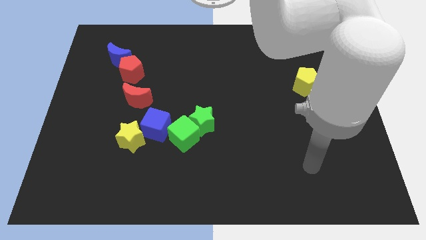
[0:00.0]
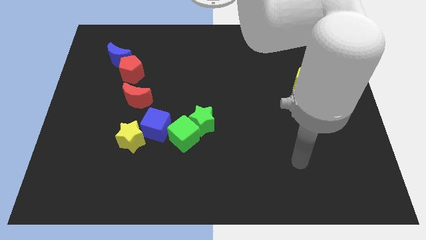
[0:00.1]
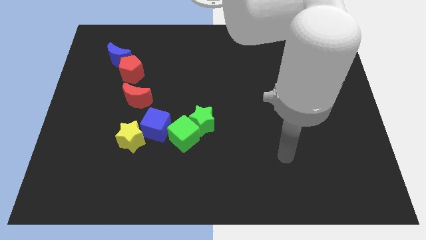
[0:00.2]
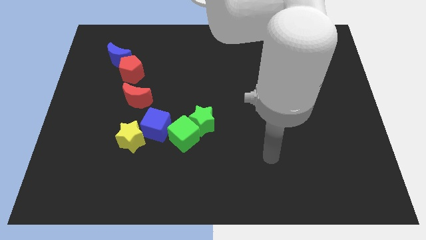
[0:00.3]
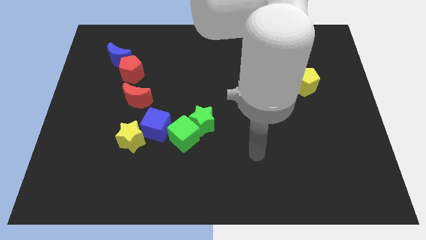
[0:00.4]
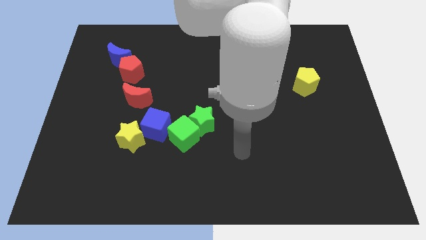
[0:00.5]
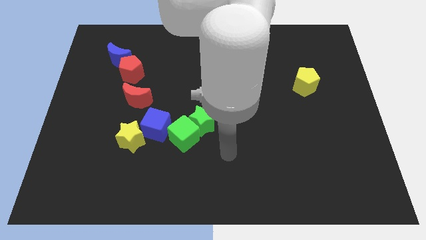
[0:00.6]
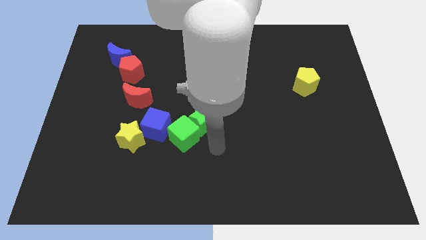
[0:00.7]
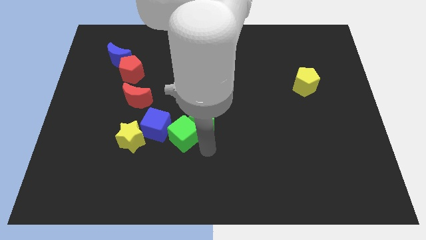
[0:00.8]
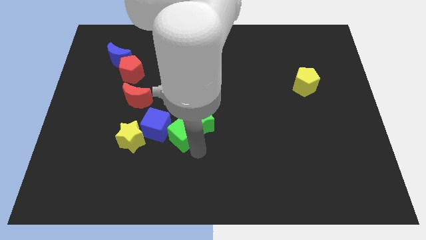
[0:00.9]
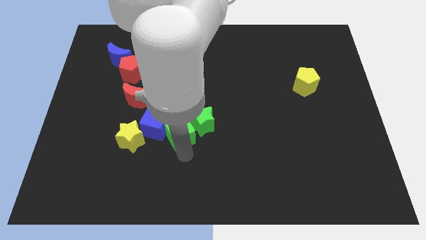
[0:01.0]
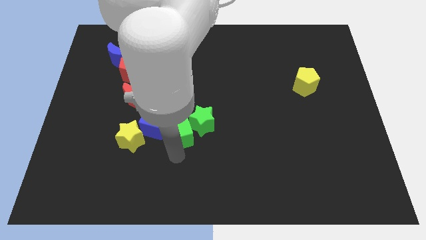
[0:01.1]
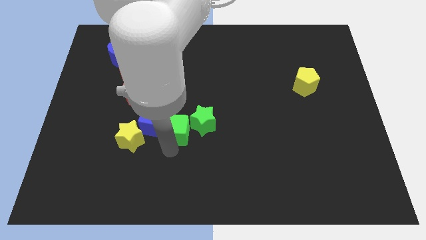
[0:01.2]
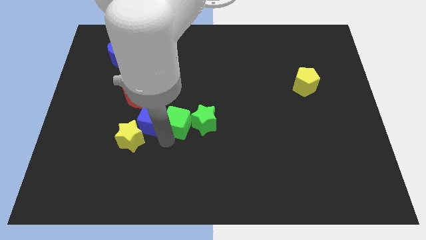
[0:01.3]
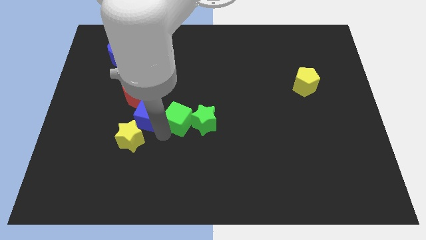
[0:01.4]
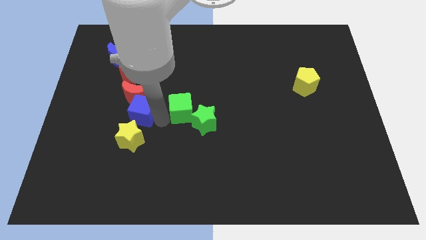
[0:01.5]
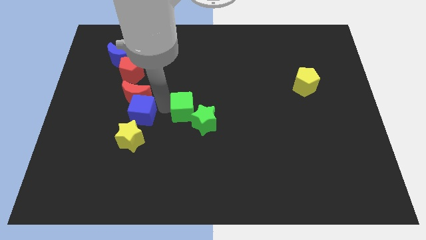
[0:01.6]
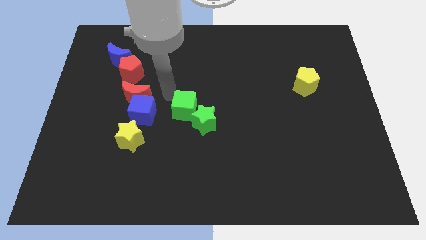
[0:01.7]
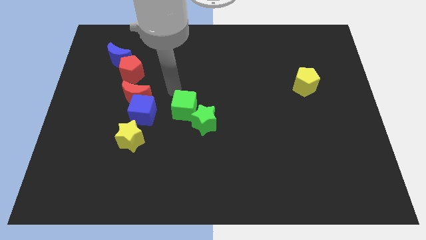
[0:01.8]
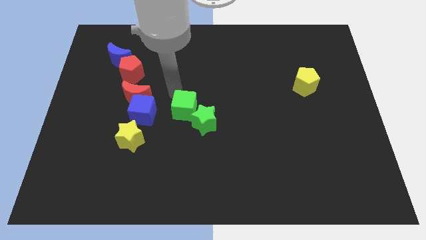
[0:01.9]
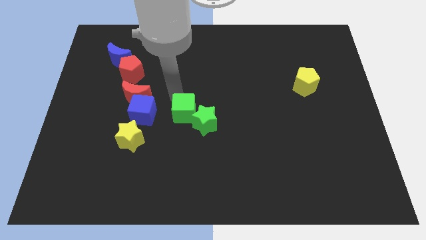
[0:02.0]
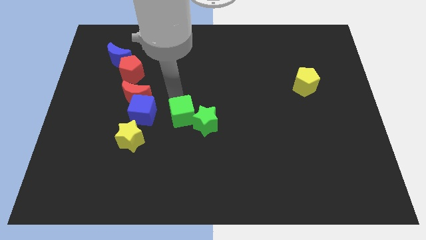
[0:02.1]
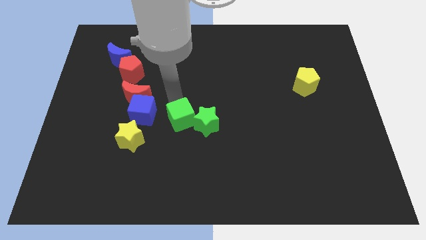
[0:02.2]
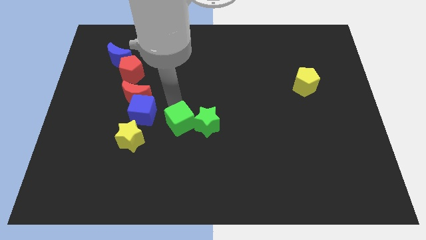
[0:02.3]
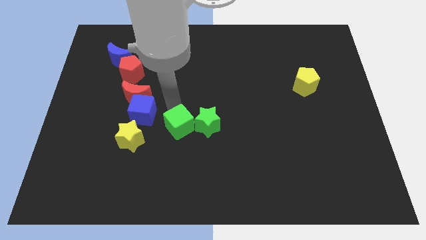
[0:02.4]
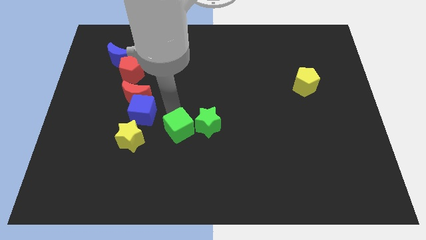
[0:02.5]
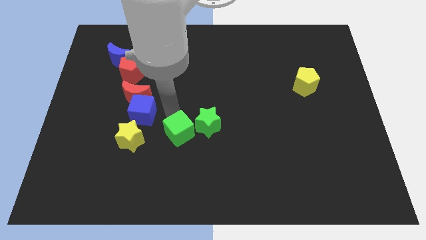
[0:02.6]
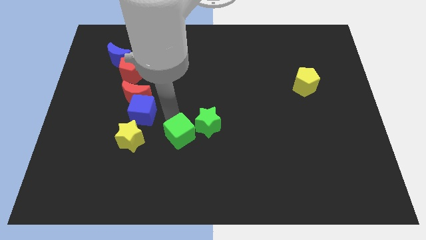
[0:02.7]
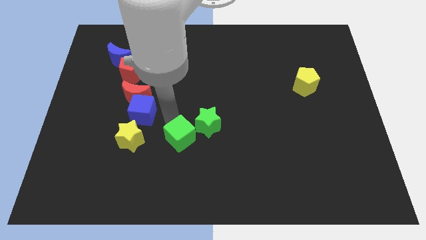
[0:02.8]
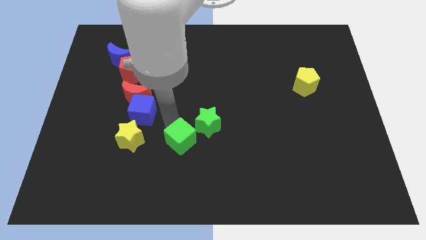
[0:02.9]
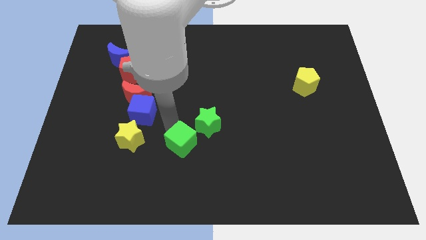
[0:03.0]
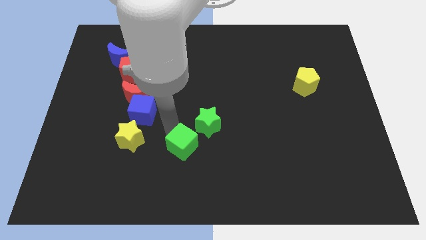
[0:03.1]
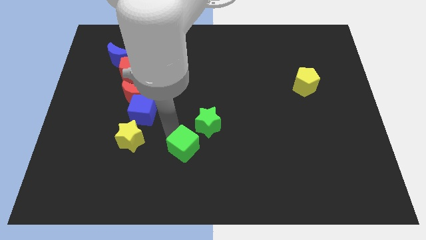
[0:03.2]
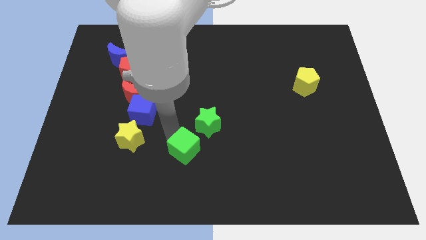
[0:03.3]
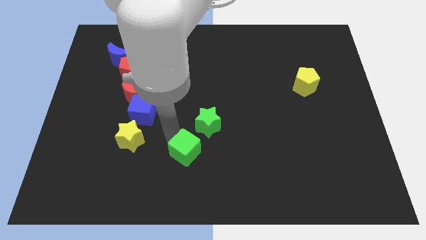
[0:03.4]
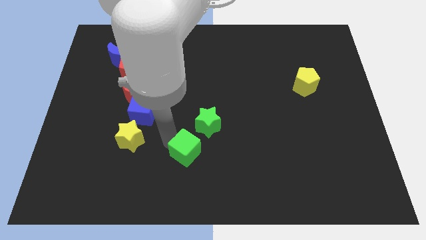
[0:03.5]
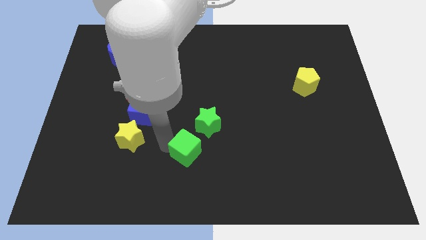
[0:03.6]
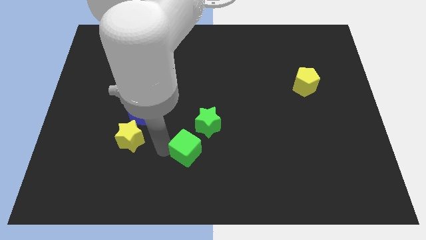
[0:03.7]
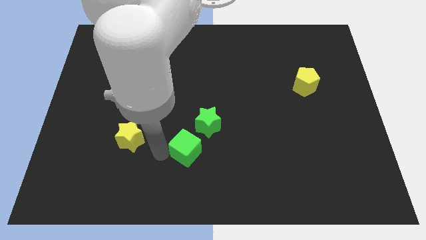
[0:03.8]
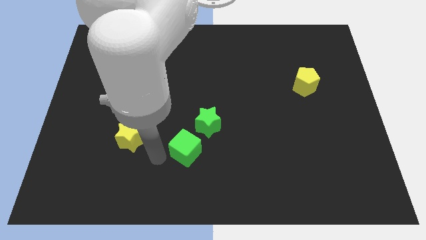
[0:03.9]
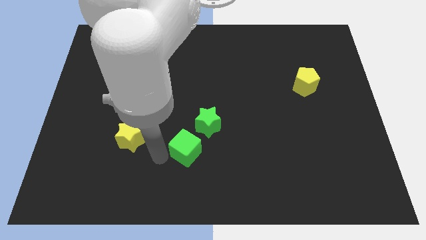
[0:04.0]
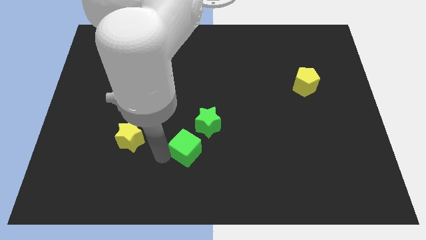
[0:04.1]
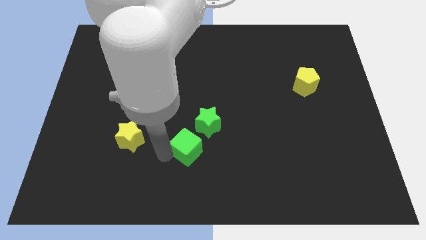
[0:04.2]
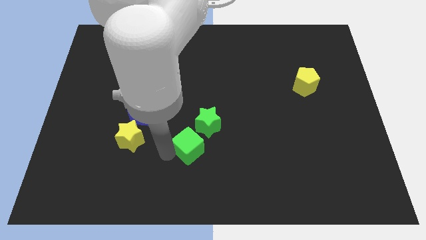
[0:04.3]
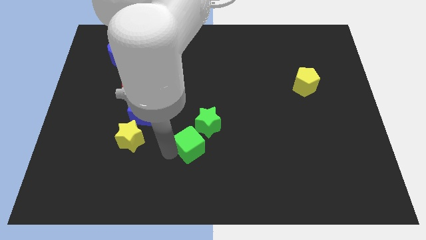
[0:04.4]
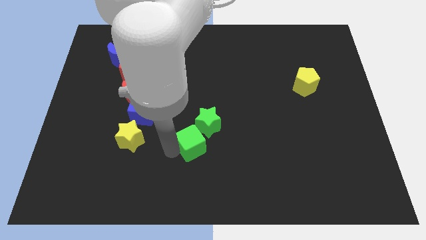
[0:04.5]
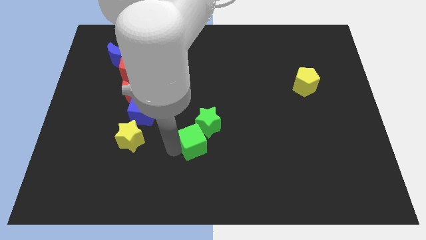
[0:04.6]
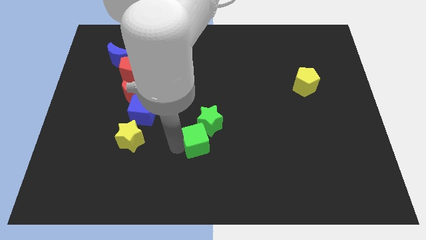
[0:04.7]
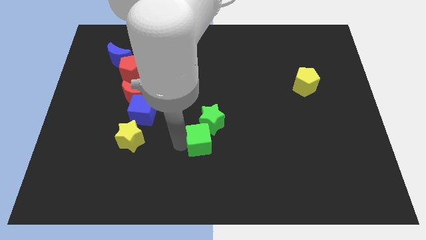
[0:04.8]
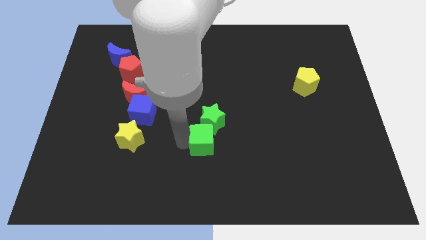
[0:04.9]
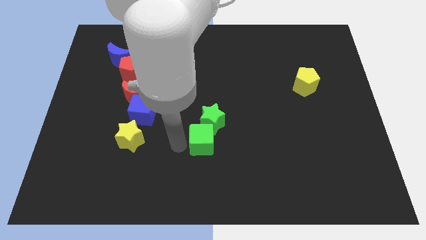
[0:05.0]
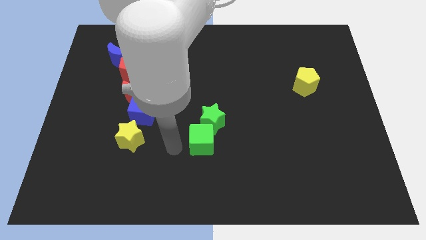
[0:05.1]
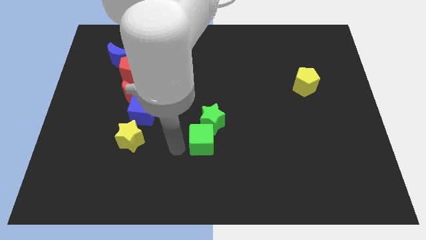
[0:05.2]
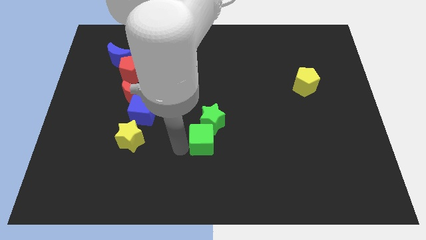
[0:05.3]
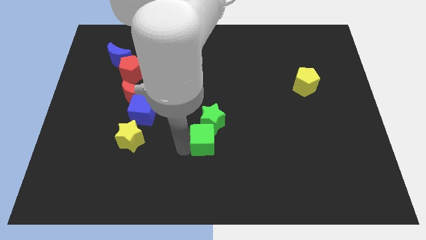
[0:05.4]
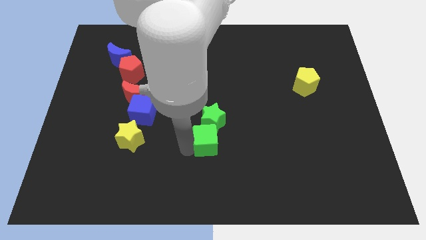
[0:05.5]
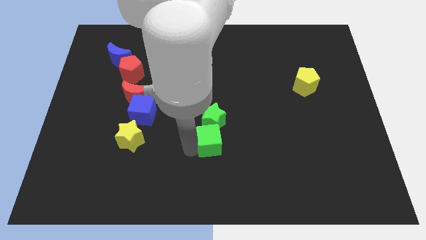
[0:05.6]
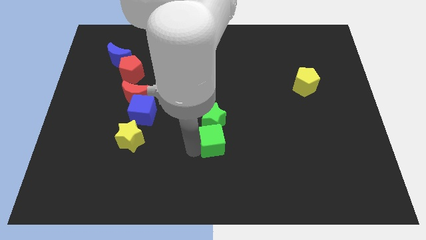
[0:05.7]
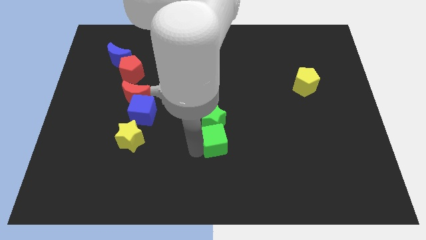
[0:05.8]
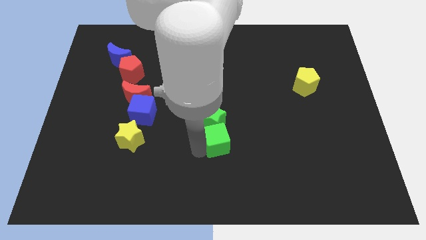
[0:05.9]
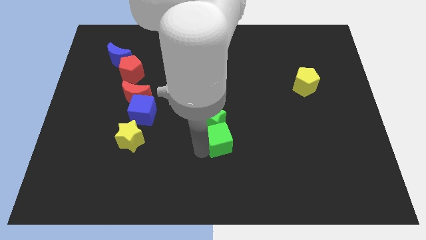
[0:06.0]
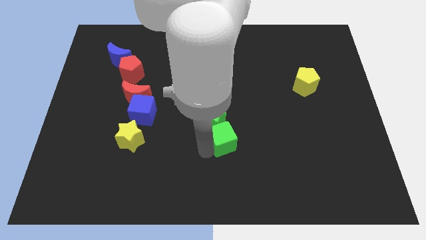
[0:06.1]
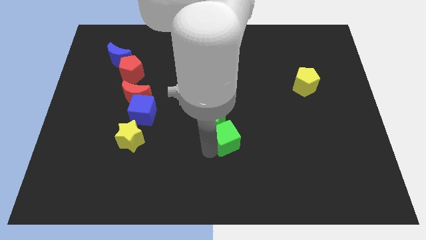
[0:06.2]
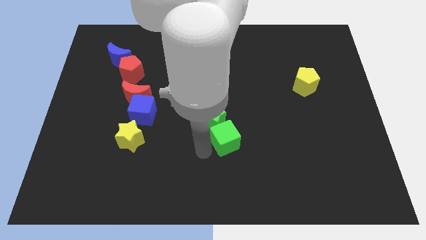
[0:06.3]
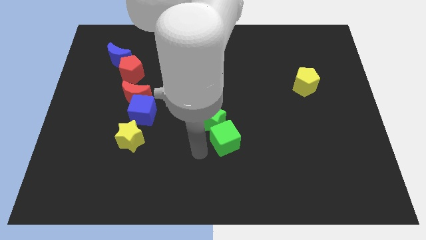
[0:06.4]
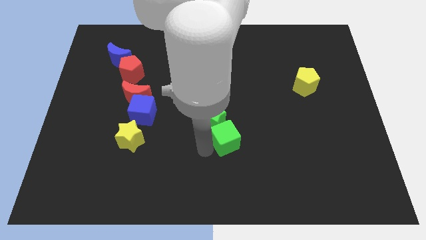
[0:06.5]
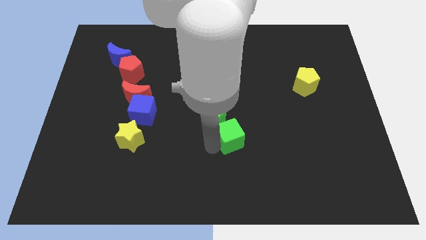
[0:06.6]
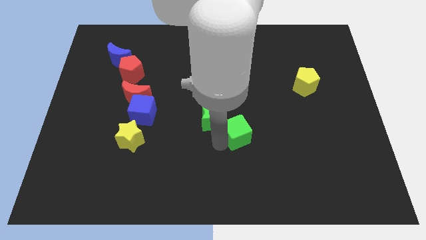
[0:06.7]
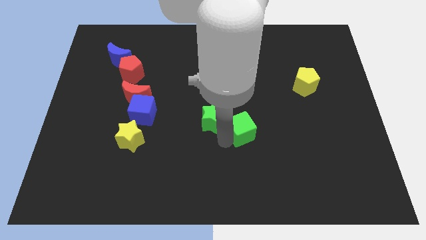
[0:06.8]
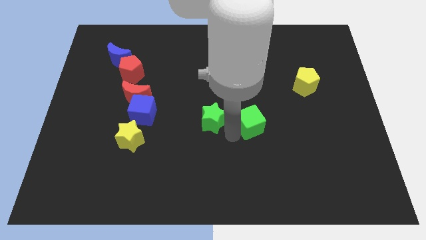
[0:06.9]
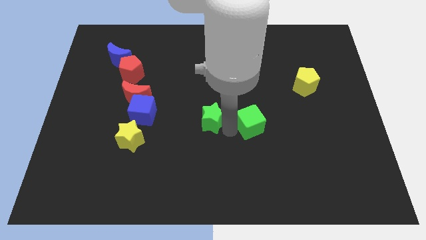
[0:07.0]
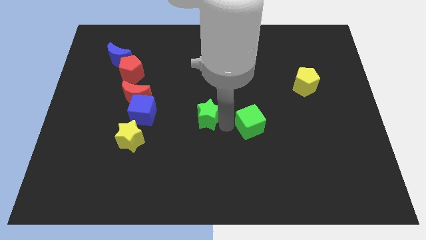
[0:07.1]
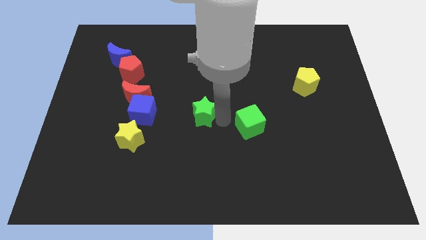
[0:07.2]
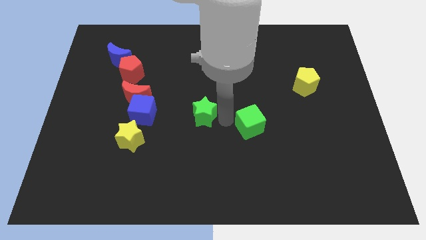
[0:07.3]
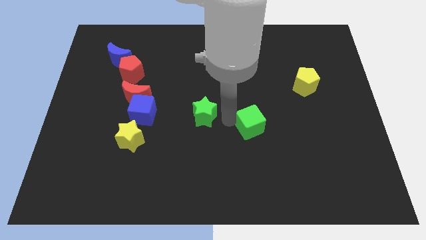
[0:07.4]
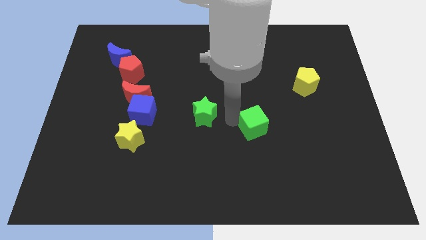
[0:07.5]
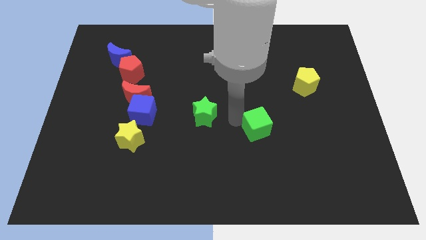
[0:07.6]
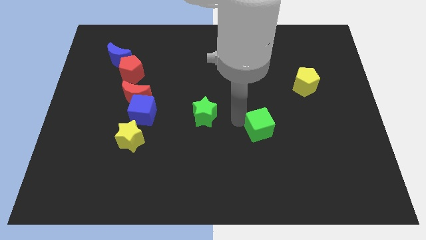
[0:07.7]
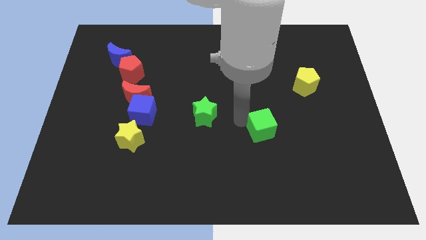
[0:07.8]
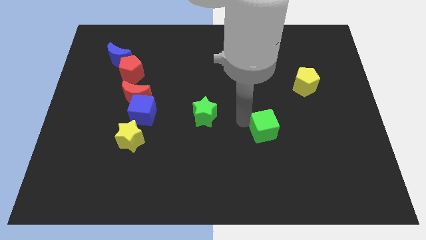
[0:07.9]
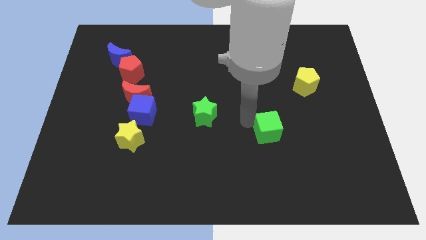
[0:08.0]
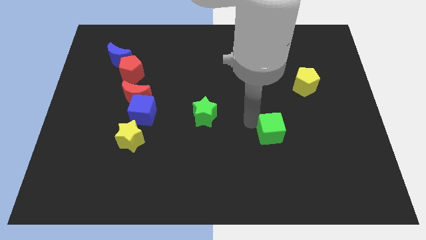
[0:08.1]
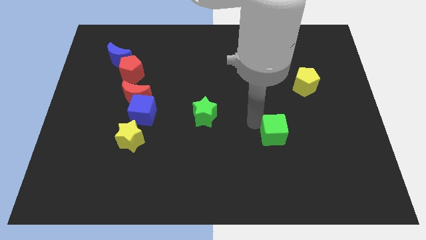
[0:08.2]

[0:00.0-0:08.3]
push the green cube to the right
